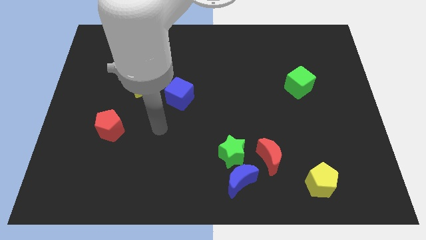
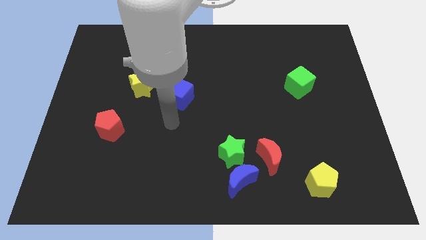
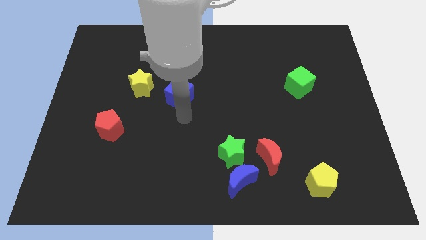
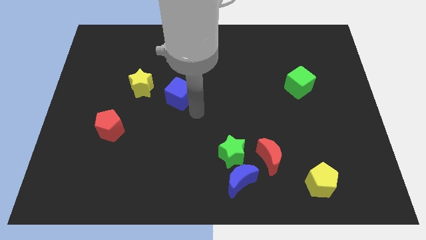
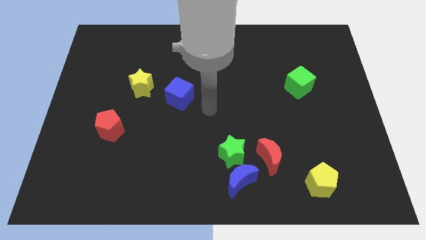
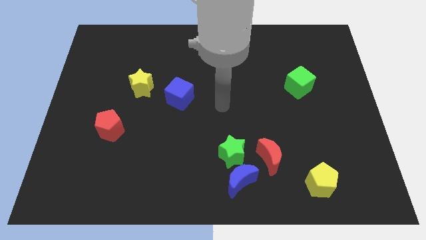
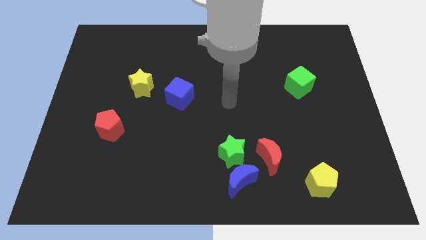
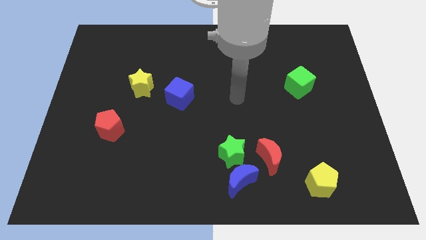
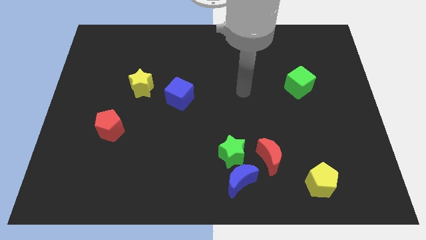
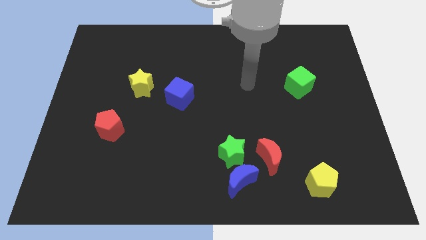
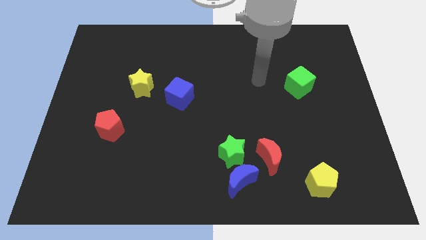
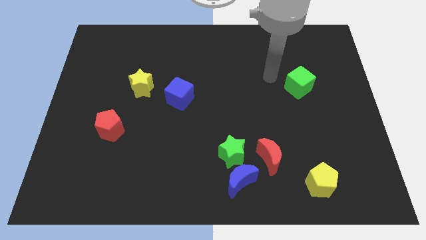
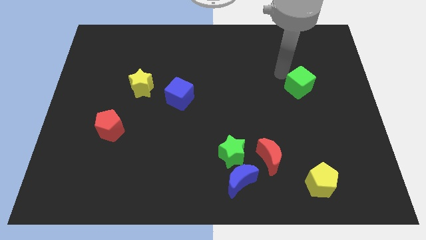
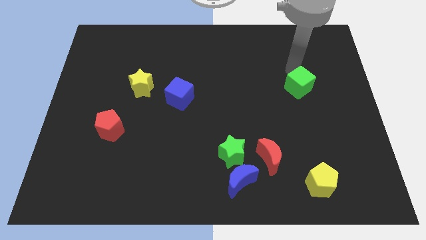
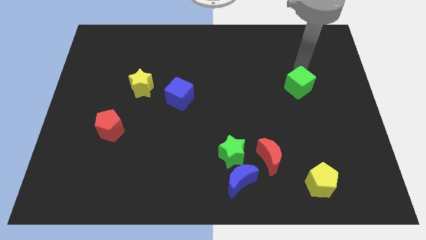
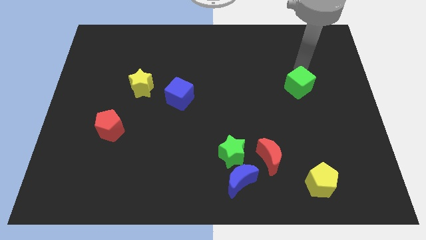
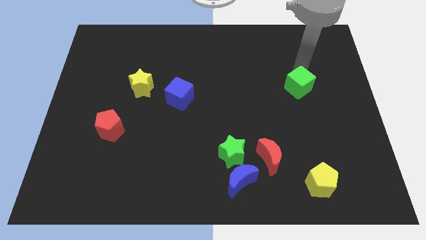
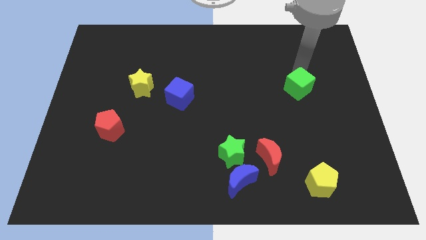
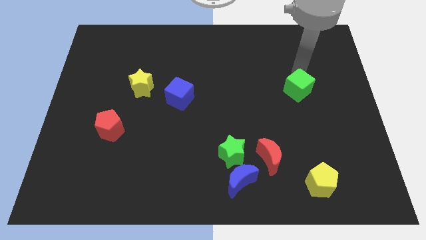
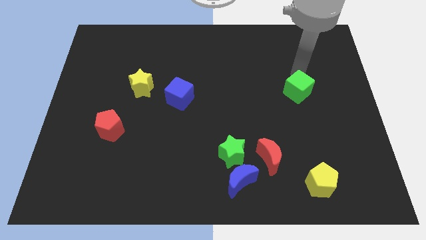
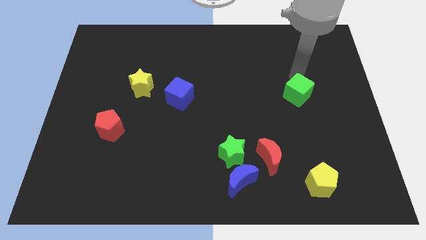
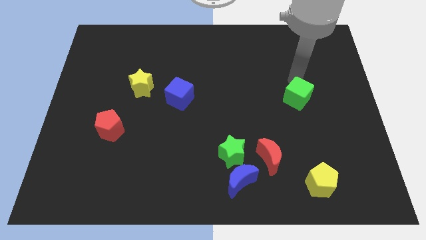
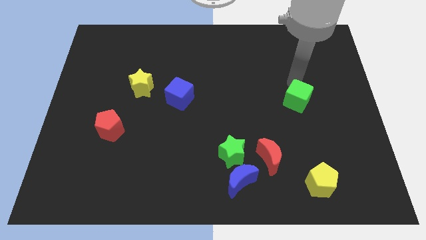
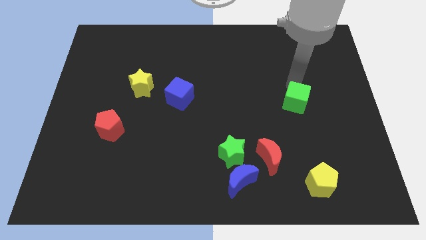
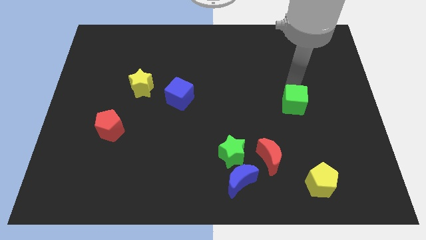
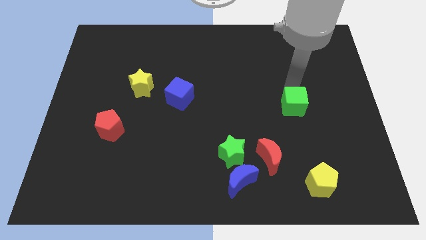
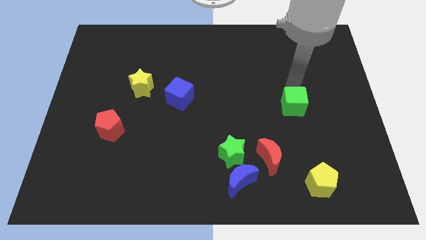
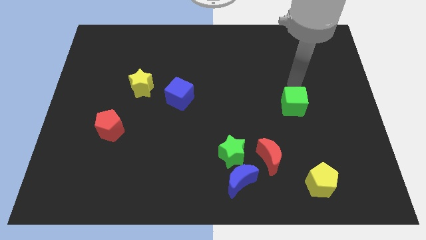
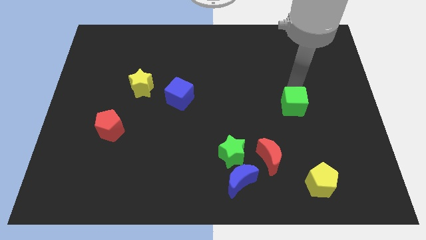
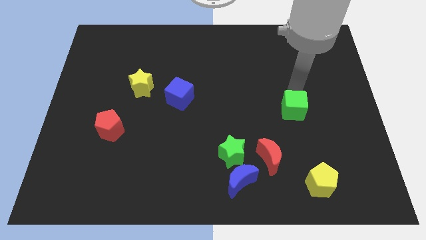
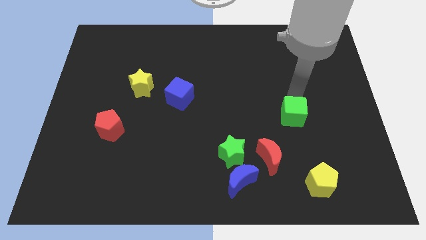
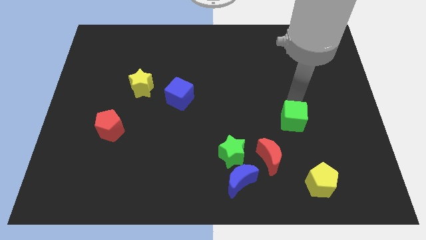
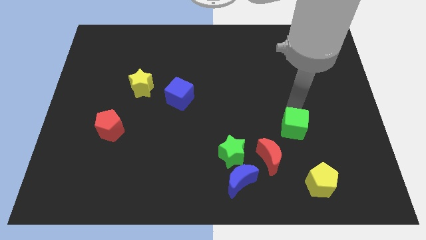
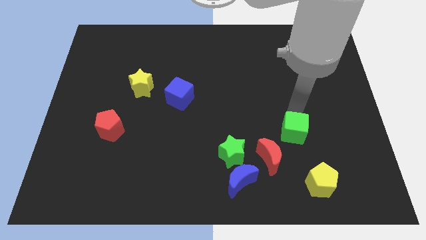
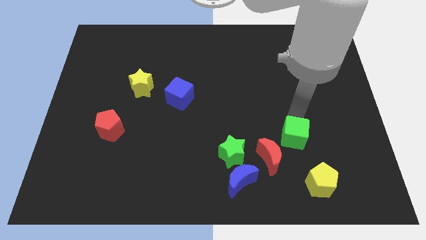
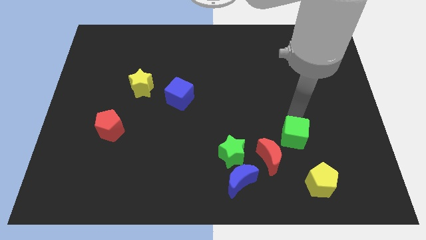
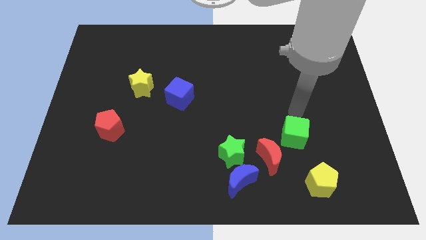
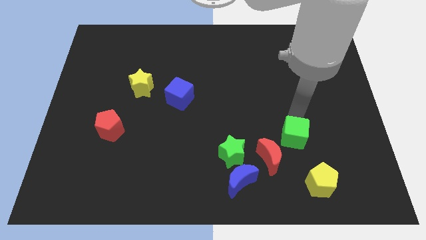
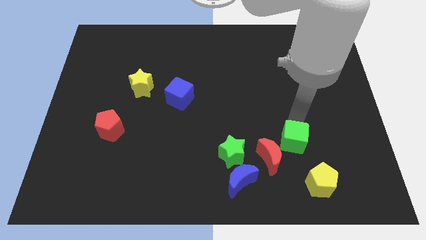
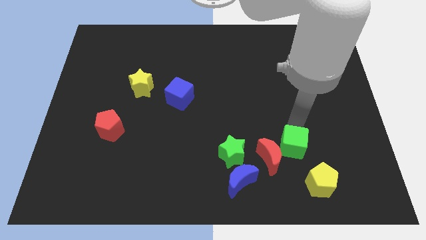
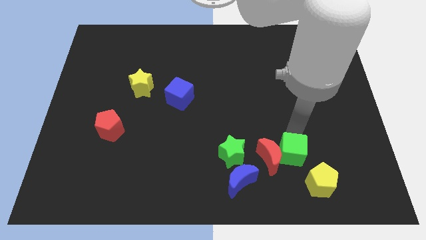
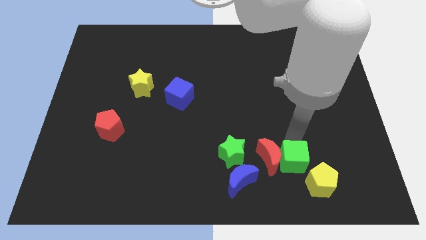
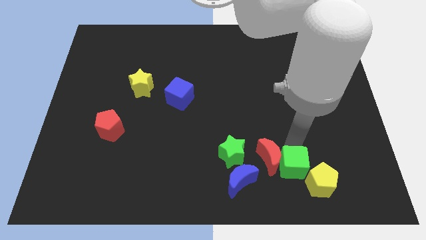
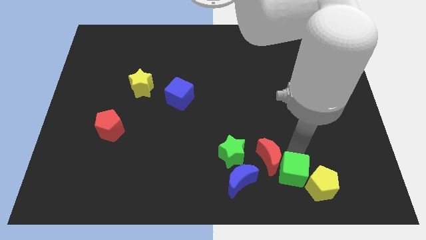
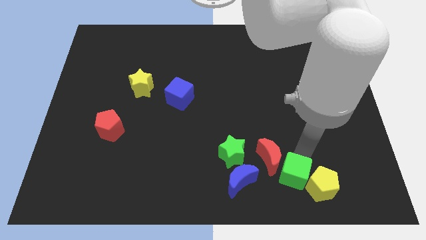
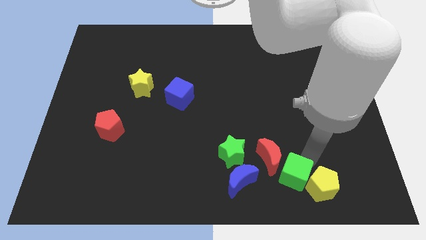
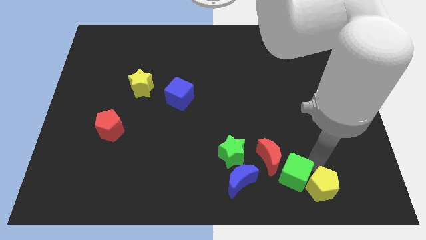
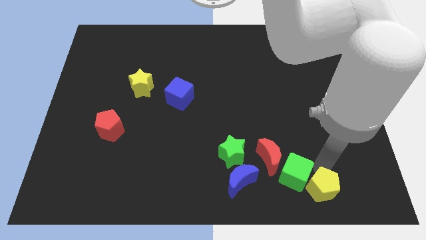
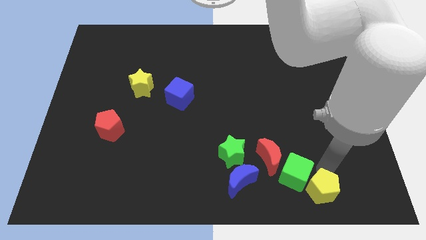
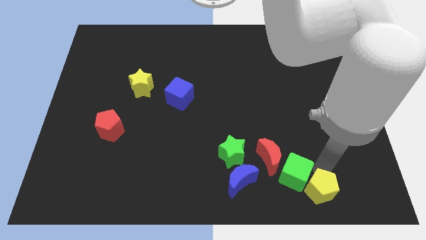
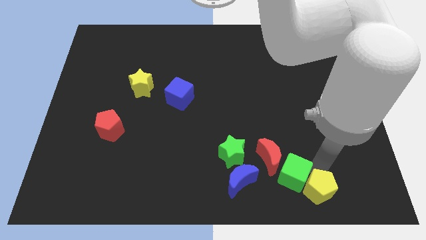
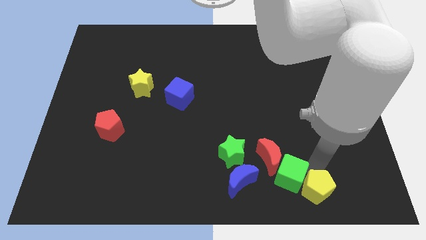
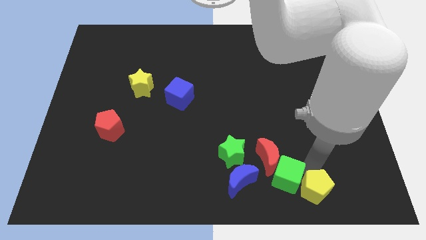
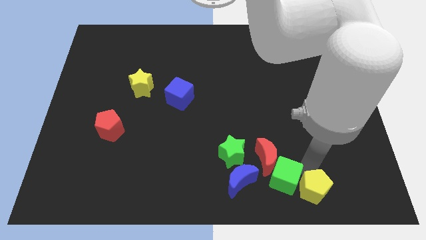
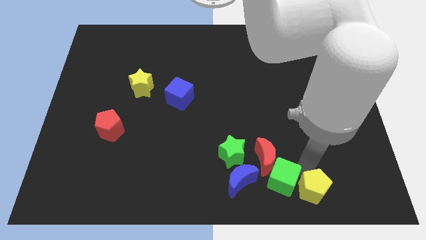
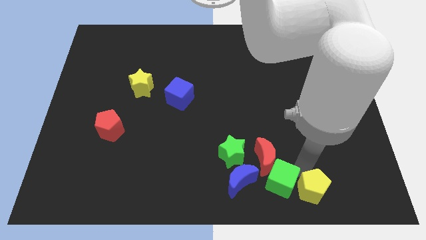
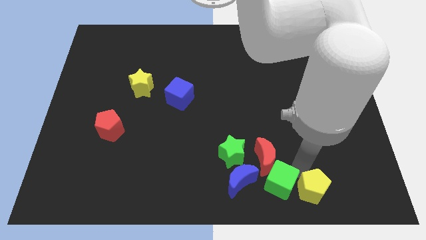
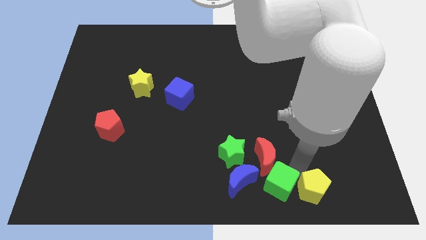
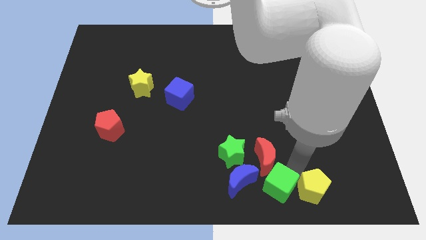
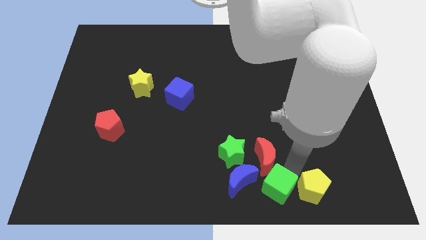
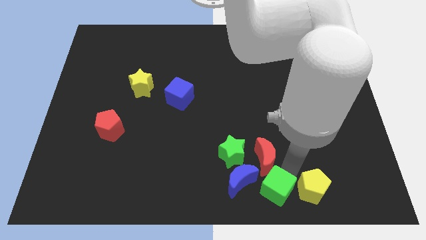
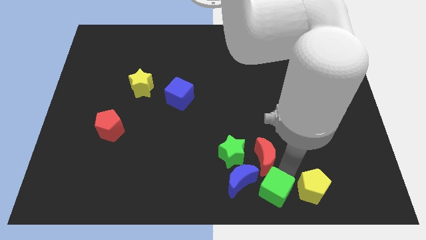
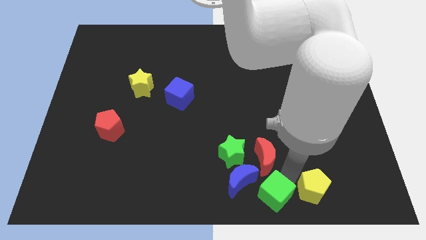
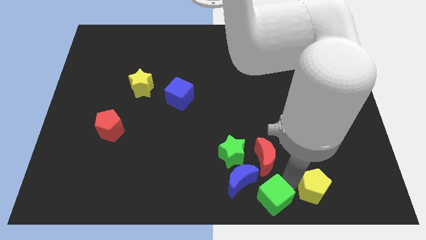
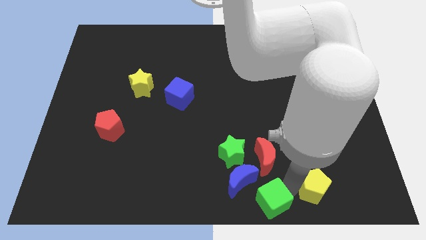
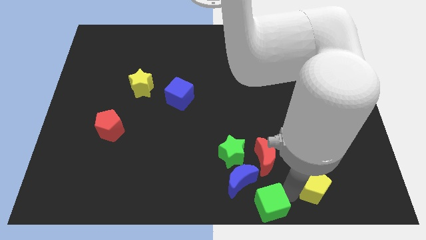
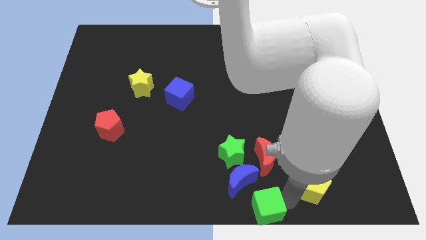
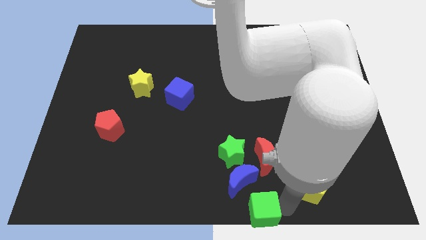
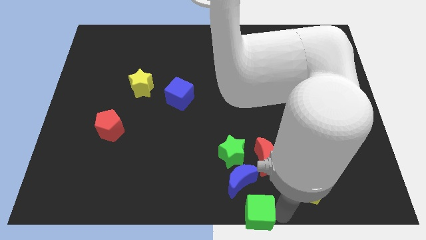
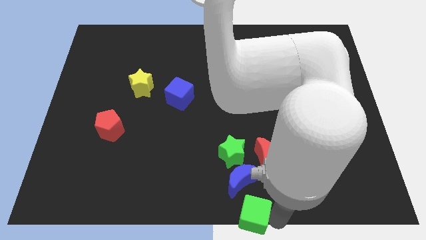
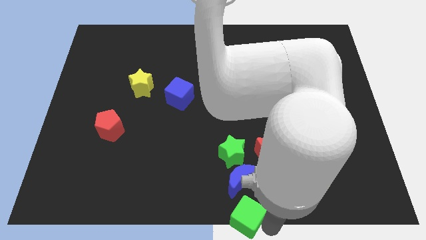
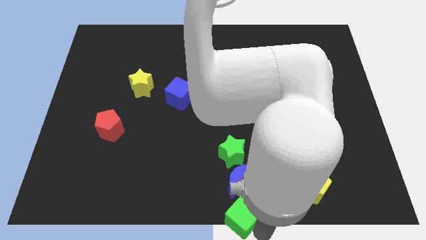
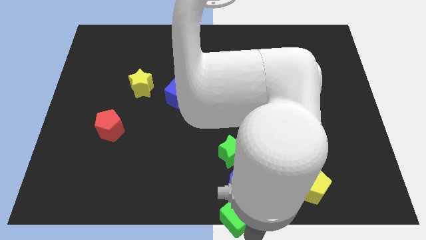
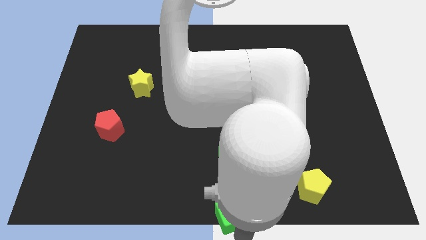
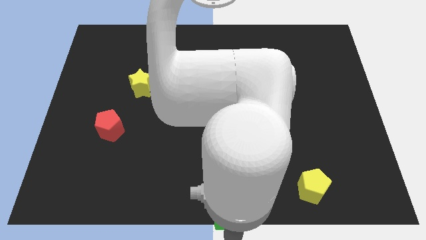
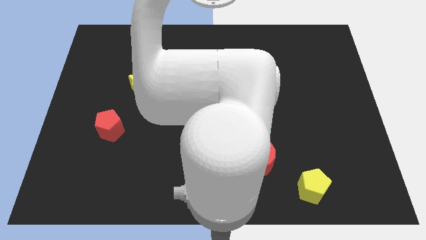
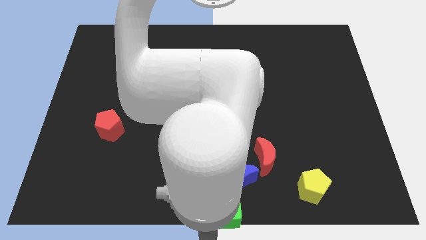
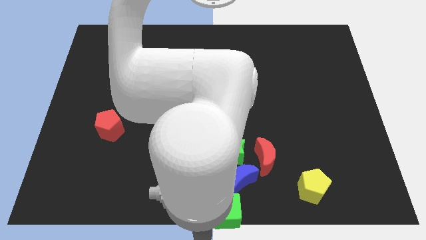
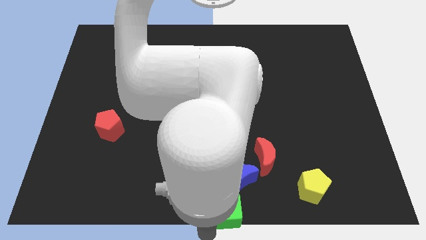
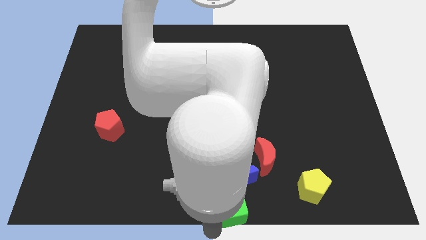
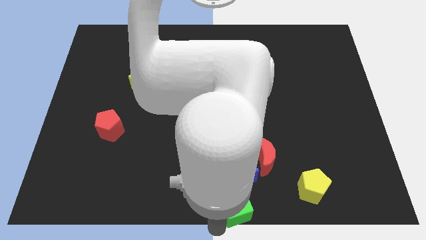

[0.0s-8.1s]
move the green cube next to the blue moon
